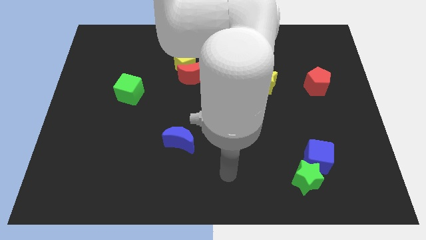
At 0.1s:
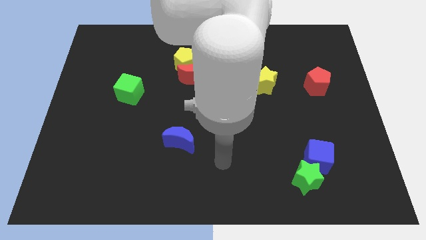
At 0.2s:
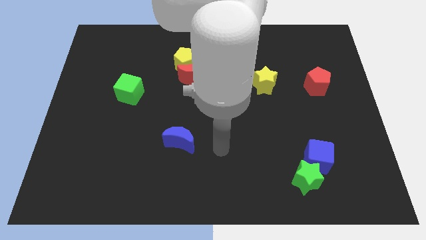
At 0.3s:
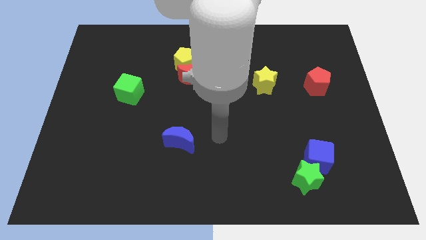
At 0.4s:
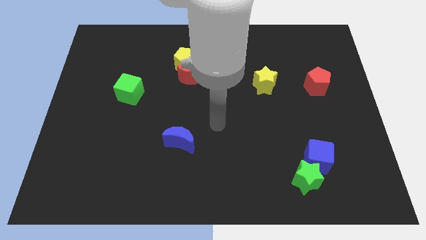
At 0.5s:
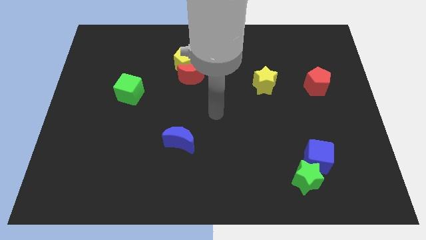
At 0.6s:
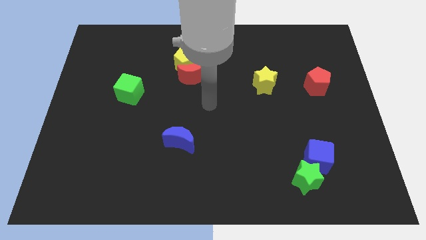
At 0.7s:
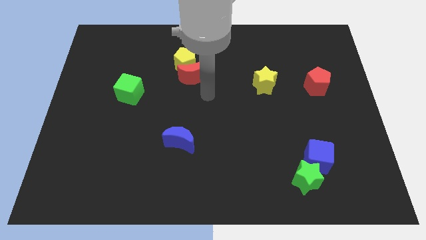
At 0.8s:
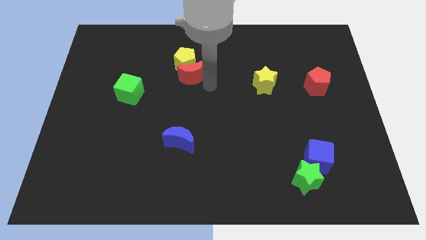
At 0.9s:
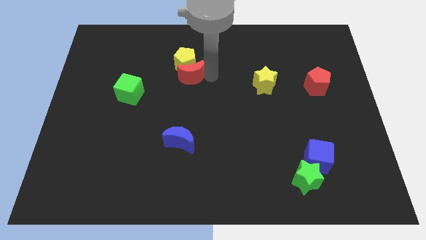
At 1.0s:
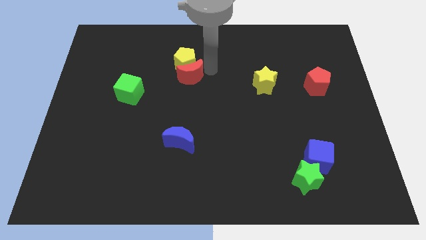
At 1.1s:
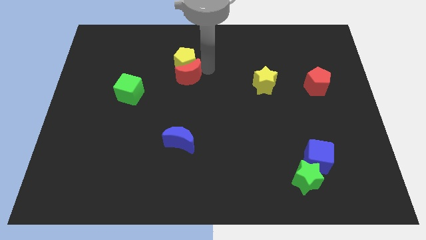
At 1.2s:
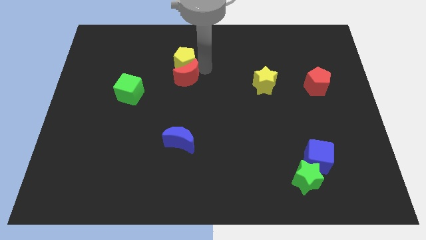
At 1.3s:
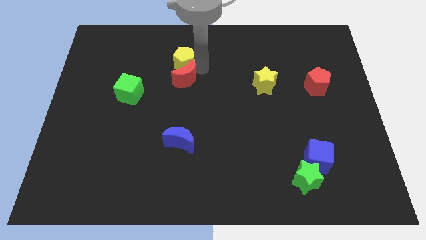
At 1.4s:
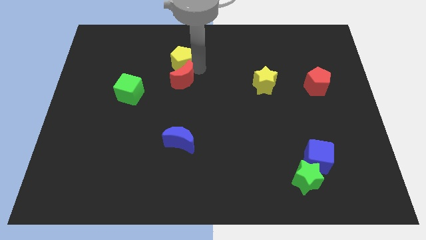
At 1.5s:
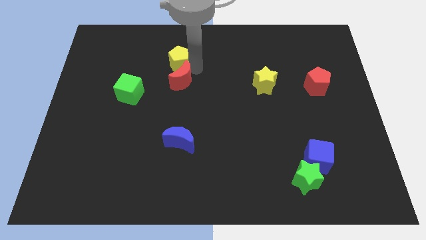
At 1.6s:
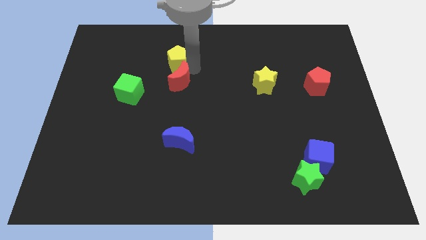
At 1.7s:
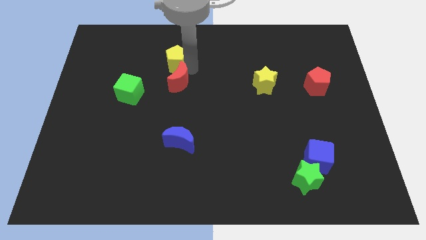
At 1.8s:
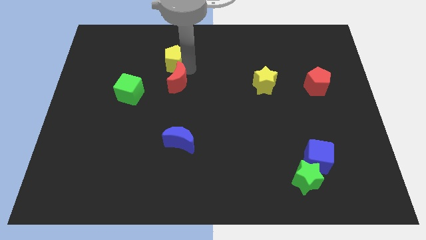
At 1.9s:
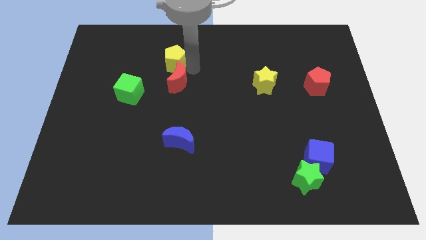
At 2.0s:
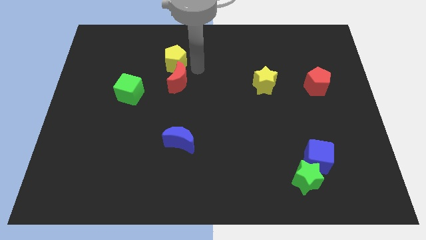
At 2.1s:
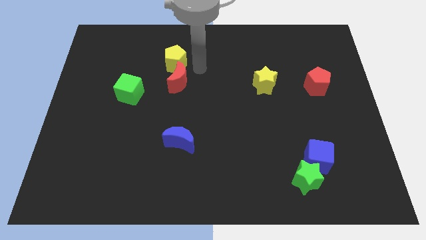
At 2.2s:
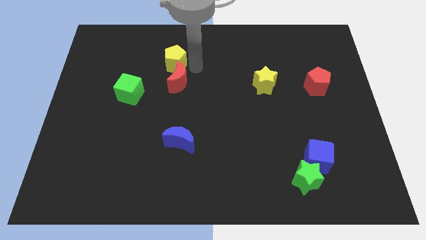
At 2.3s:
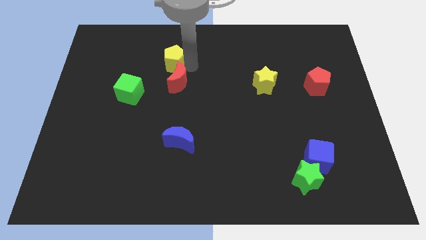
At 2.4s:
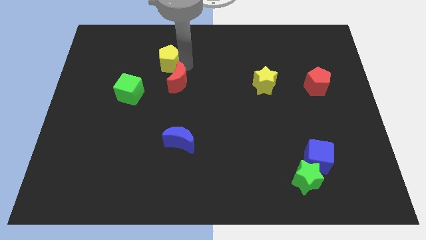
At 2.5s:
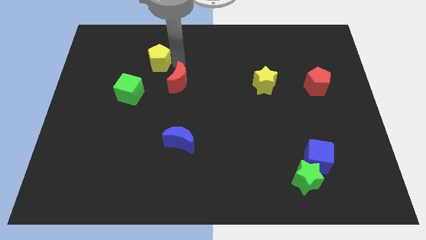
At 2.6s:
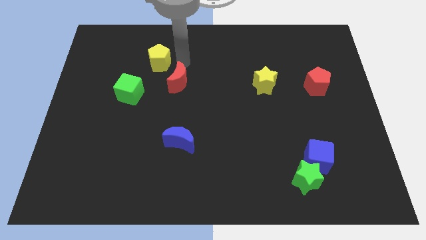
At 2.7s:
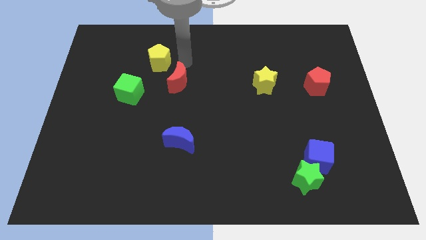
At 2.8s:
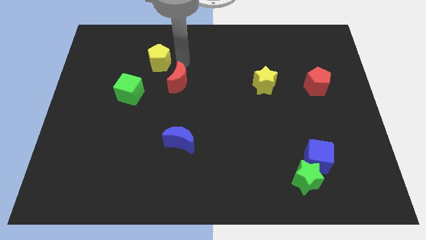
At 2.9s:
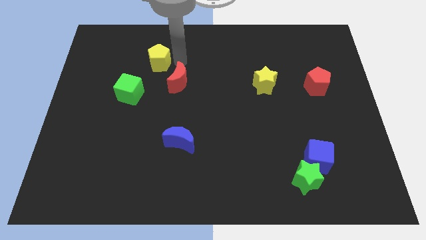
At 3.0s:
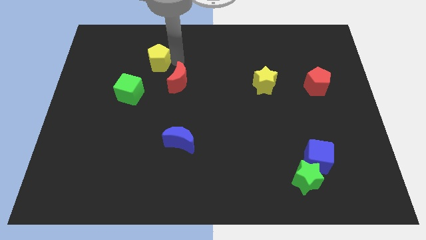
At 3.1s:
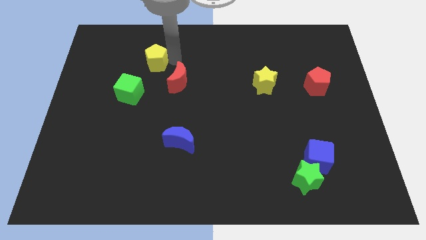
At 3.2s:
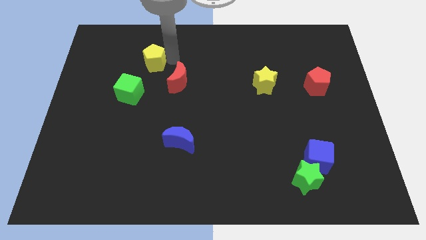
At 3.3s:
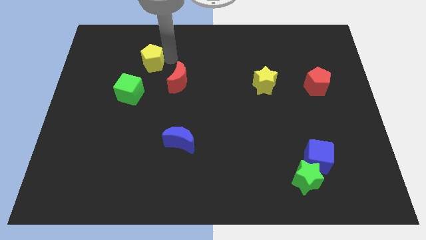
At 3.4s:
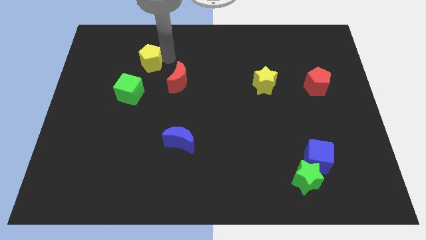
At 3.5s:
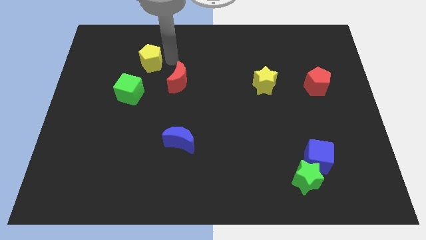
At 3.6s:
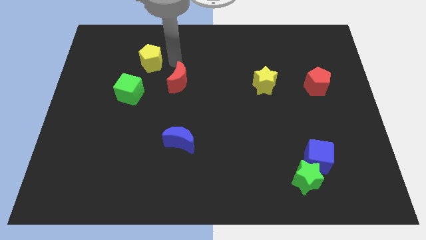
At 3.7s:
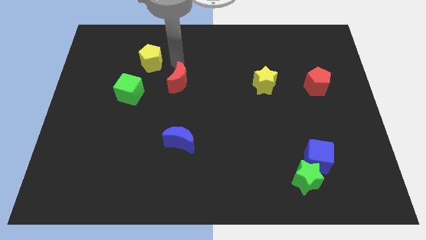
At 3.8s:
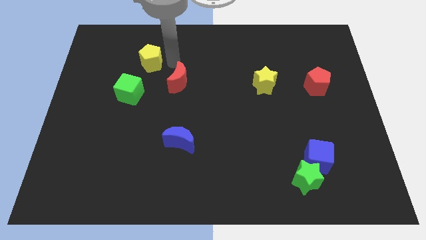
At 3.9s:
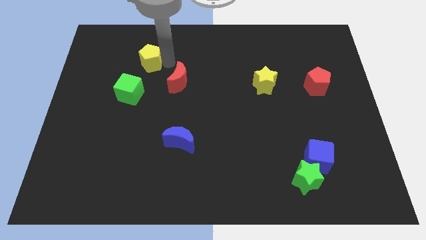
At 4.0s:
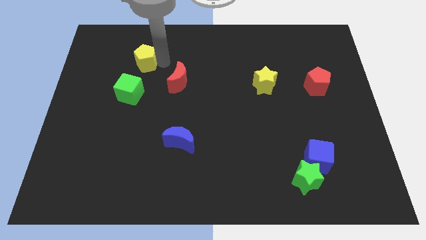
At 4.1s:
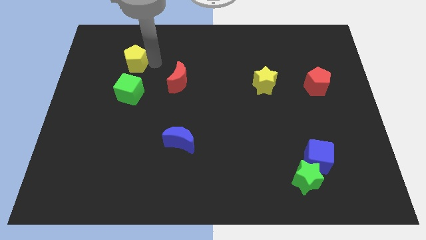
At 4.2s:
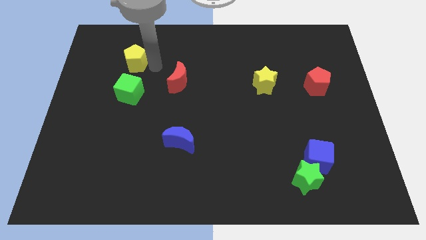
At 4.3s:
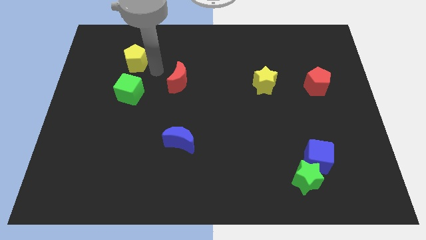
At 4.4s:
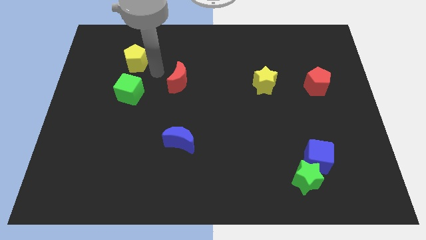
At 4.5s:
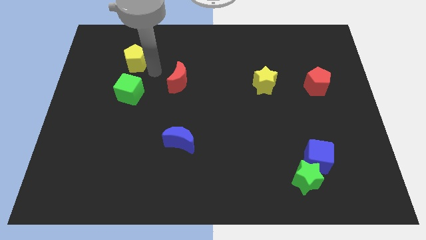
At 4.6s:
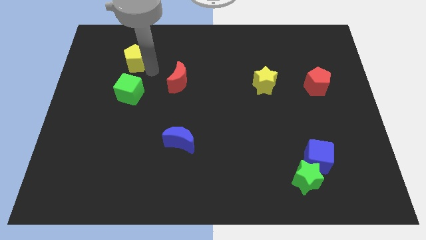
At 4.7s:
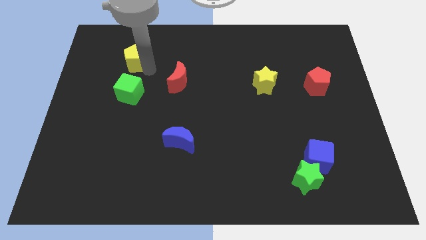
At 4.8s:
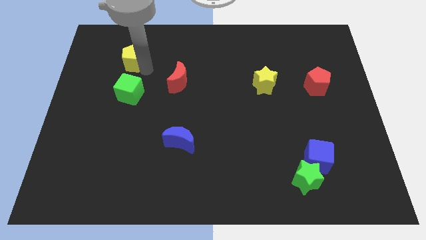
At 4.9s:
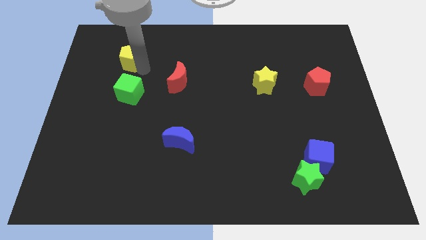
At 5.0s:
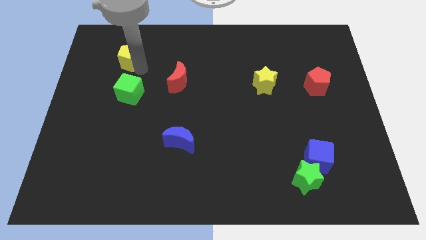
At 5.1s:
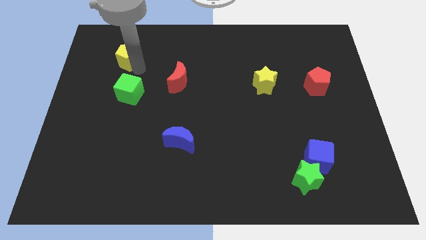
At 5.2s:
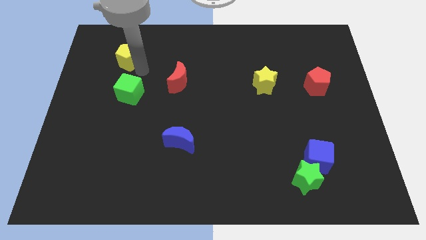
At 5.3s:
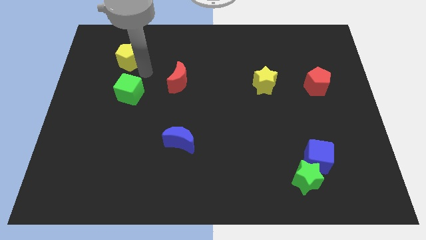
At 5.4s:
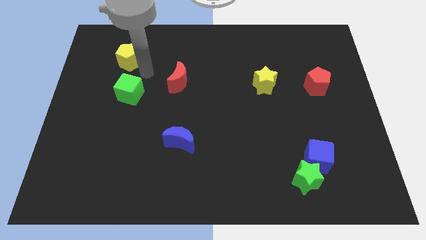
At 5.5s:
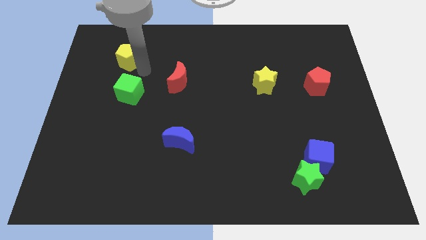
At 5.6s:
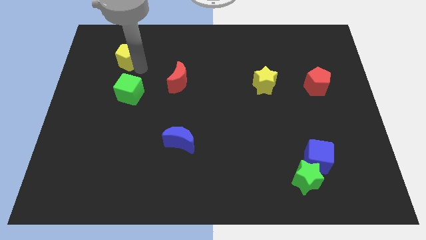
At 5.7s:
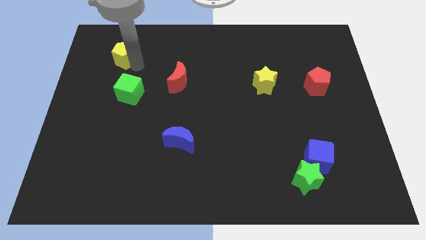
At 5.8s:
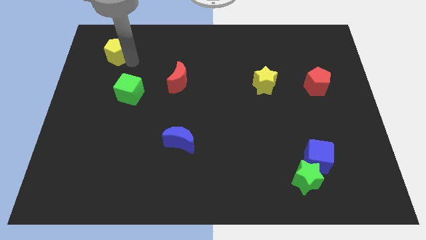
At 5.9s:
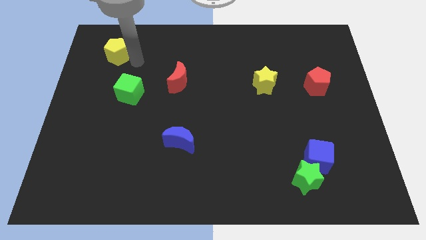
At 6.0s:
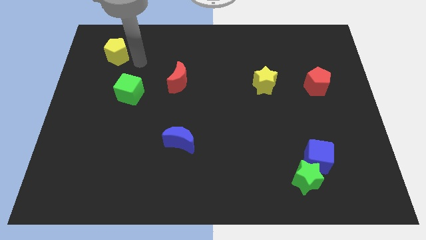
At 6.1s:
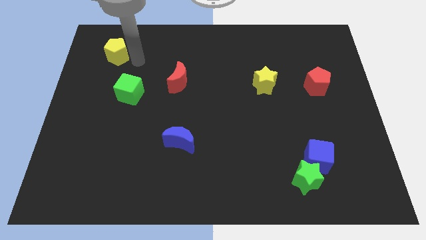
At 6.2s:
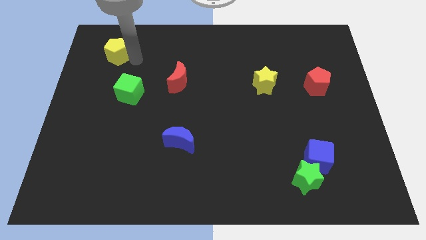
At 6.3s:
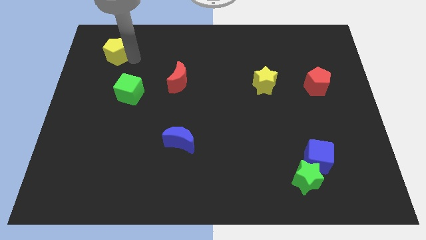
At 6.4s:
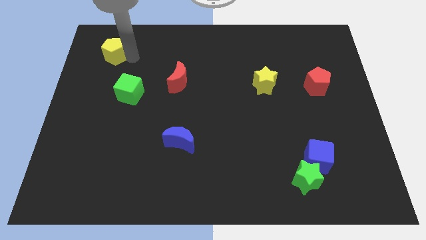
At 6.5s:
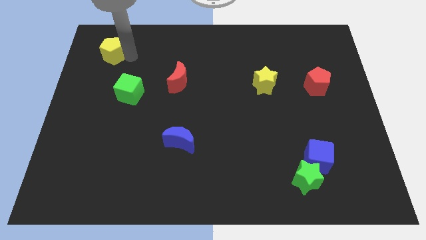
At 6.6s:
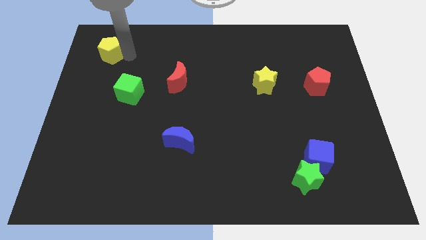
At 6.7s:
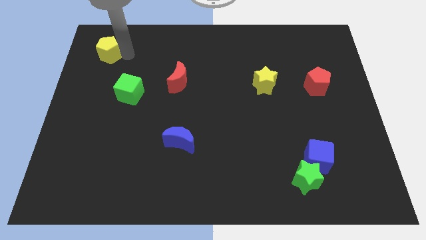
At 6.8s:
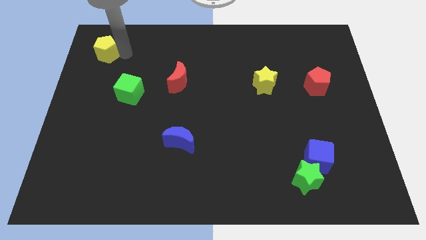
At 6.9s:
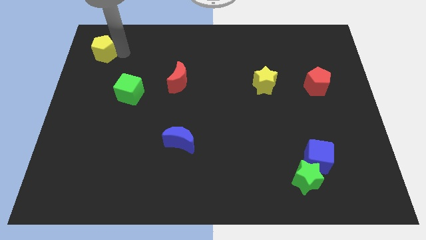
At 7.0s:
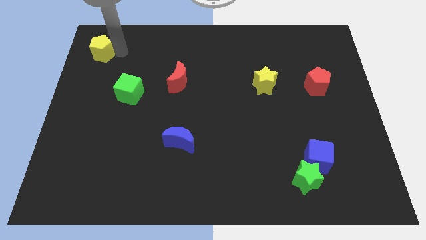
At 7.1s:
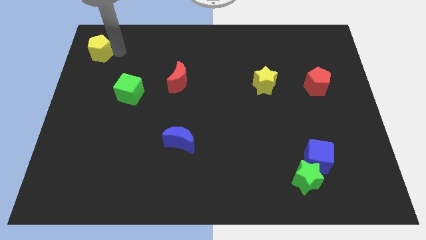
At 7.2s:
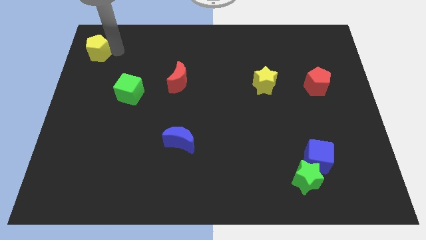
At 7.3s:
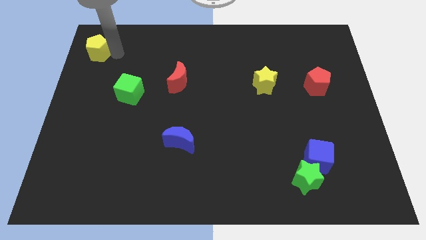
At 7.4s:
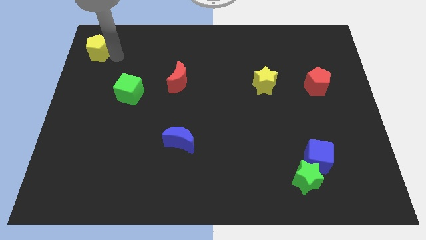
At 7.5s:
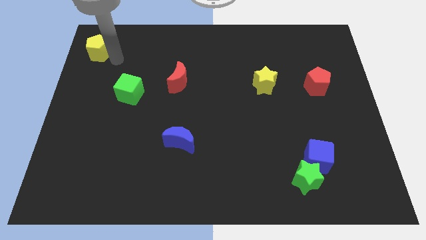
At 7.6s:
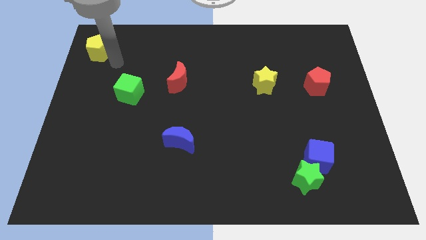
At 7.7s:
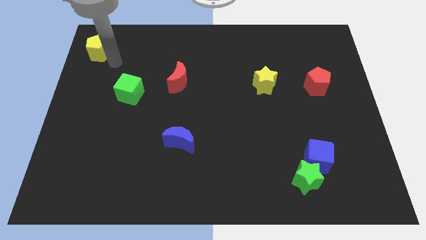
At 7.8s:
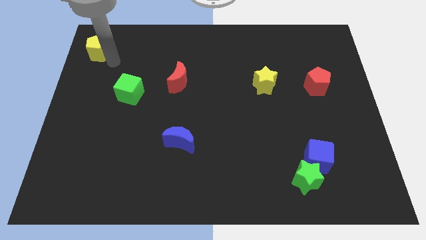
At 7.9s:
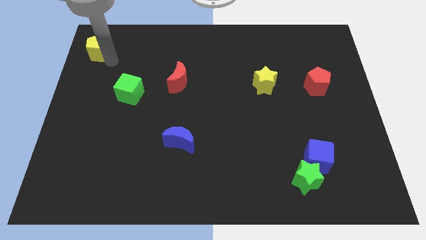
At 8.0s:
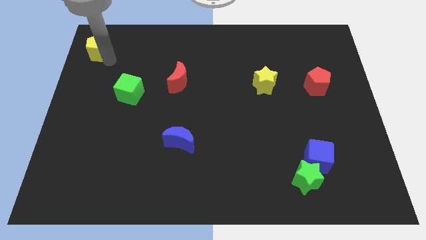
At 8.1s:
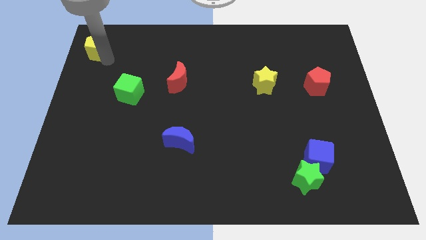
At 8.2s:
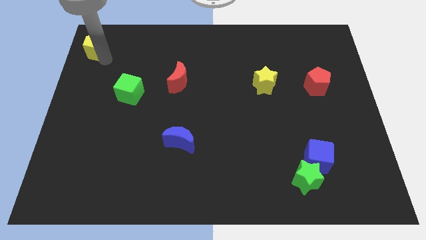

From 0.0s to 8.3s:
move the yellow pentagon to the upper left corner
